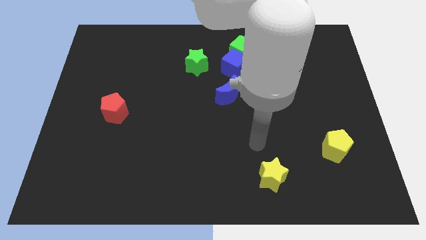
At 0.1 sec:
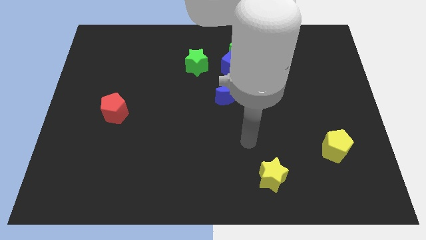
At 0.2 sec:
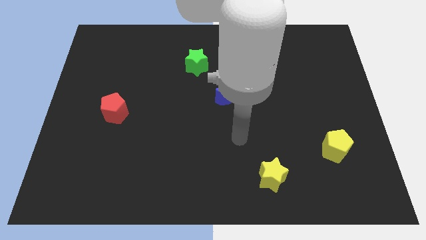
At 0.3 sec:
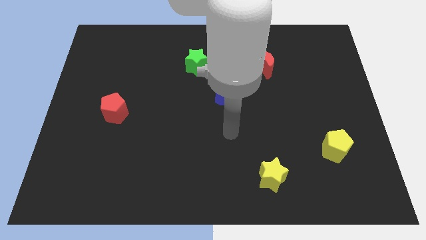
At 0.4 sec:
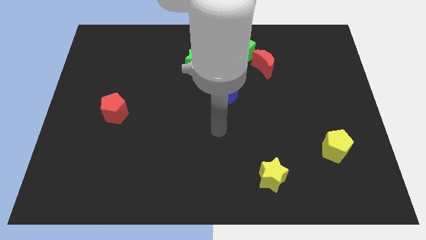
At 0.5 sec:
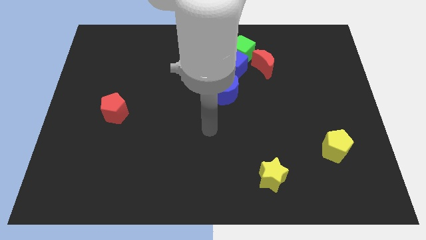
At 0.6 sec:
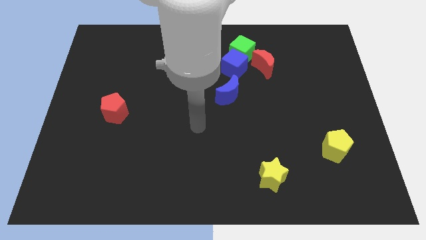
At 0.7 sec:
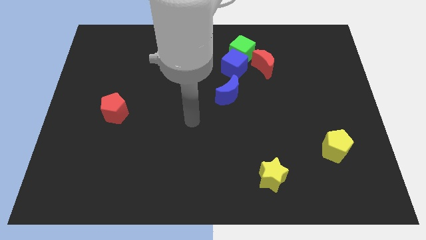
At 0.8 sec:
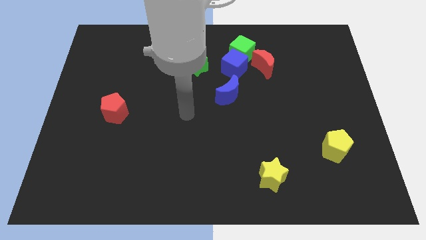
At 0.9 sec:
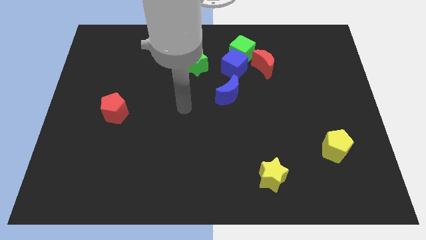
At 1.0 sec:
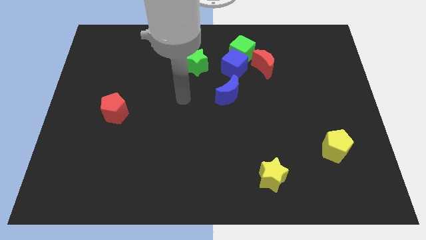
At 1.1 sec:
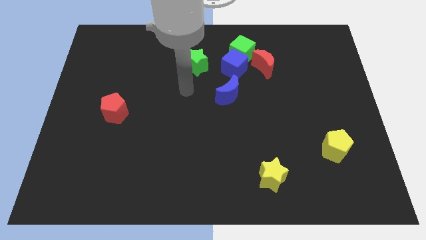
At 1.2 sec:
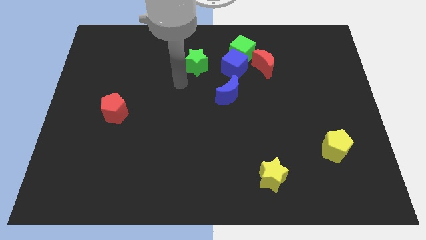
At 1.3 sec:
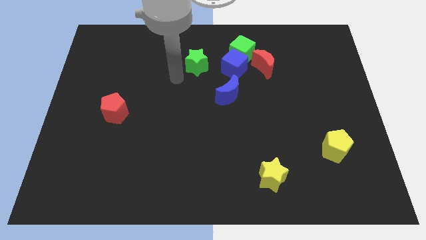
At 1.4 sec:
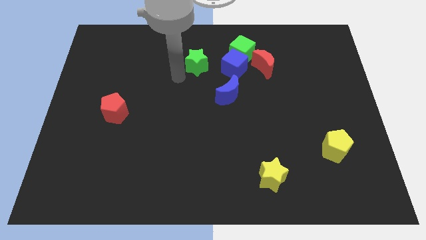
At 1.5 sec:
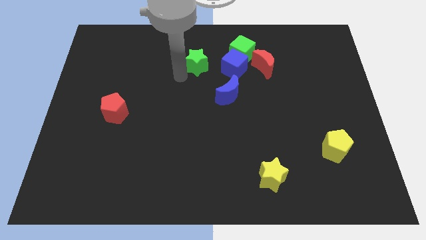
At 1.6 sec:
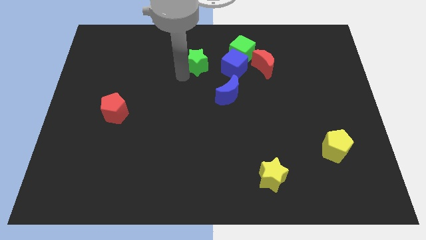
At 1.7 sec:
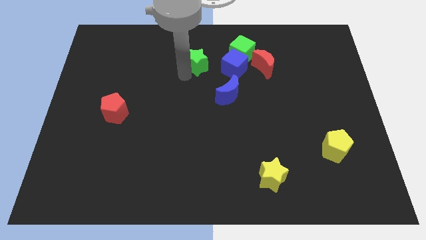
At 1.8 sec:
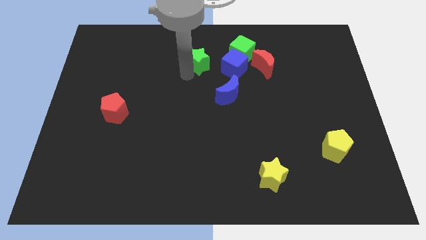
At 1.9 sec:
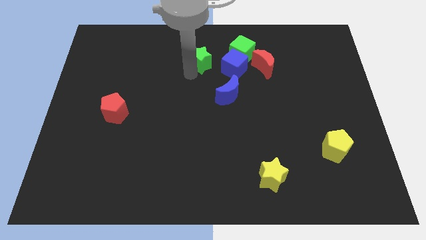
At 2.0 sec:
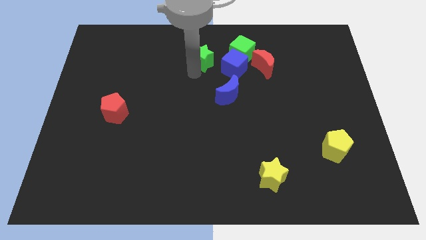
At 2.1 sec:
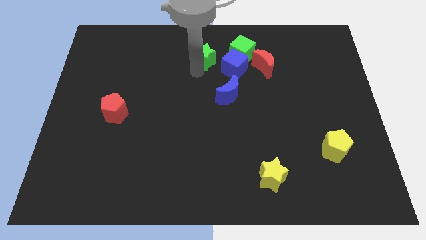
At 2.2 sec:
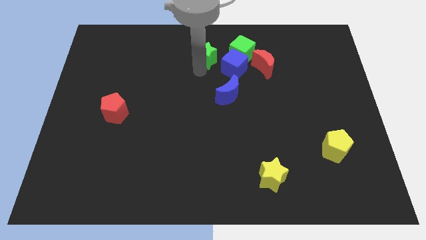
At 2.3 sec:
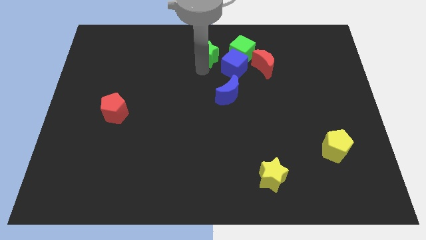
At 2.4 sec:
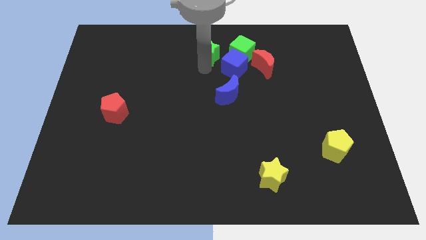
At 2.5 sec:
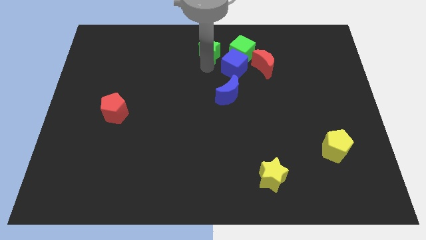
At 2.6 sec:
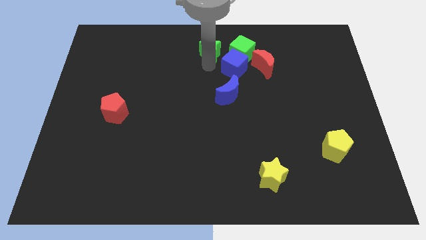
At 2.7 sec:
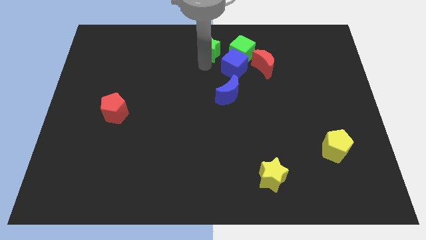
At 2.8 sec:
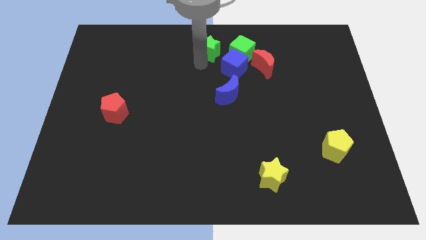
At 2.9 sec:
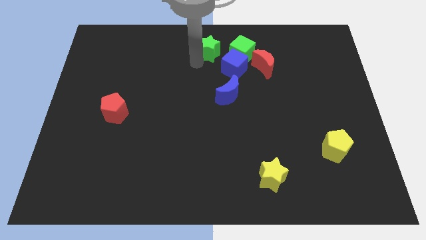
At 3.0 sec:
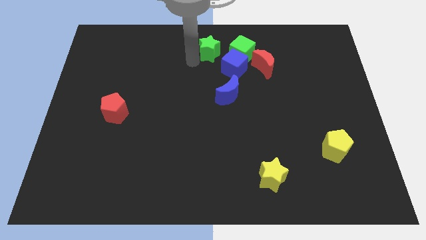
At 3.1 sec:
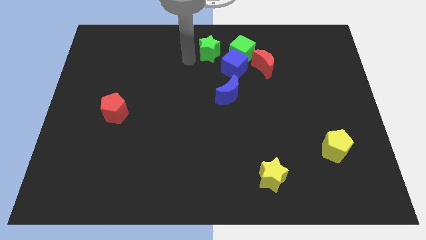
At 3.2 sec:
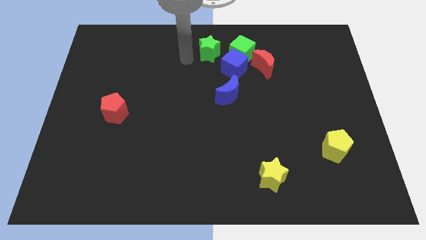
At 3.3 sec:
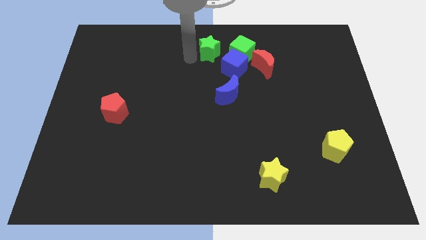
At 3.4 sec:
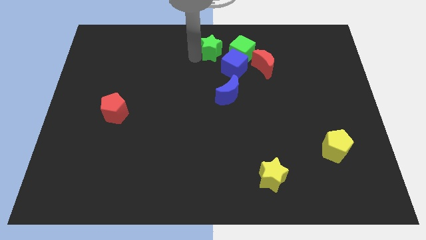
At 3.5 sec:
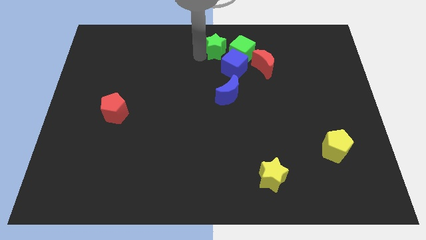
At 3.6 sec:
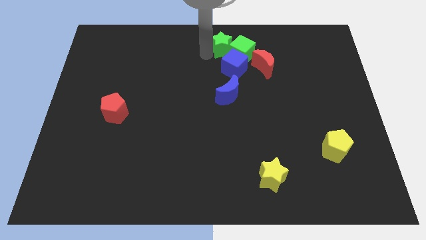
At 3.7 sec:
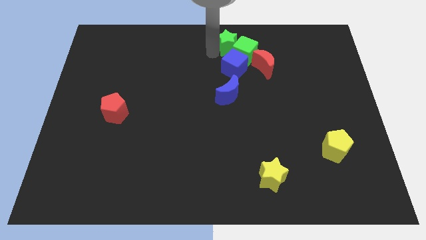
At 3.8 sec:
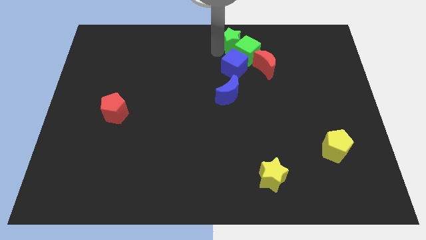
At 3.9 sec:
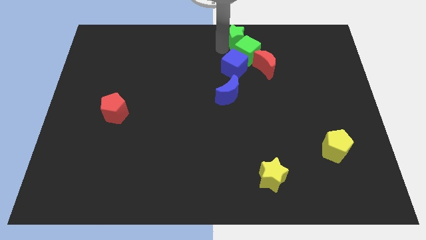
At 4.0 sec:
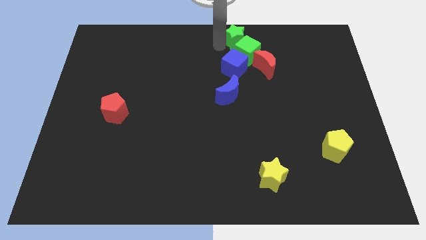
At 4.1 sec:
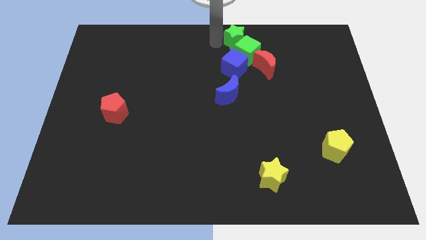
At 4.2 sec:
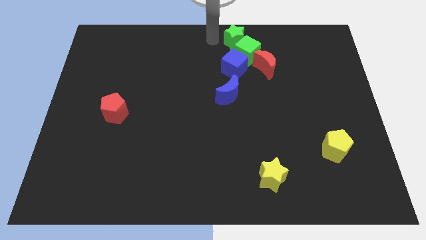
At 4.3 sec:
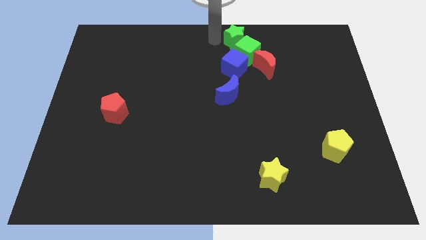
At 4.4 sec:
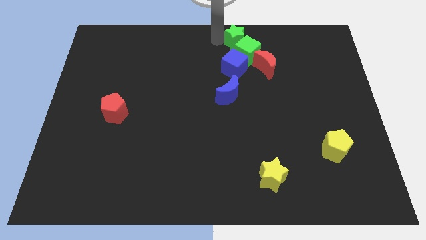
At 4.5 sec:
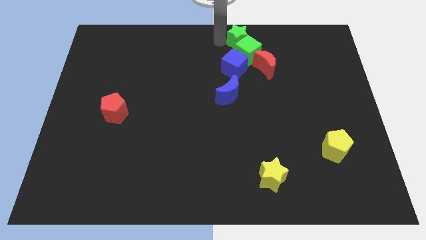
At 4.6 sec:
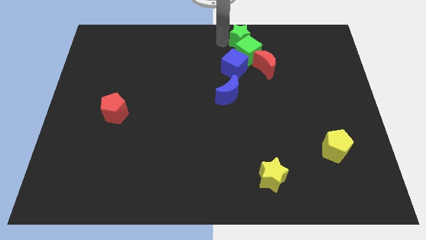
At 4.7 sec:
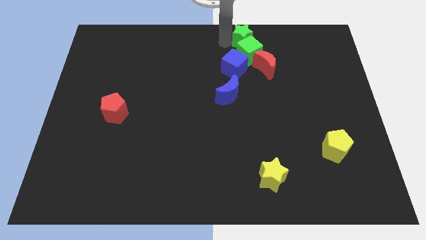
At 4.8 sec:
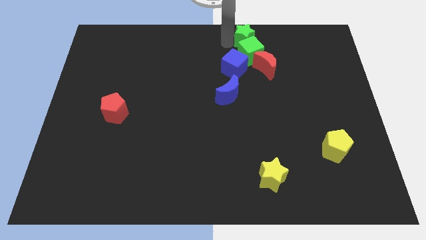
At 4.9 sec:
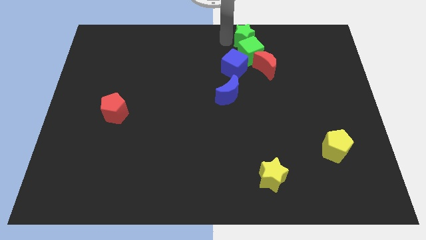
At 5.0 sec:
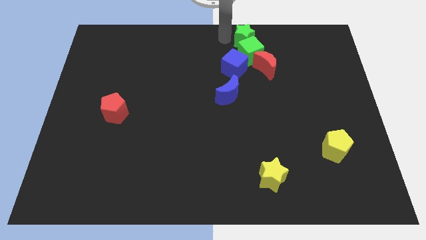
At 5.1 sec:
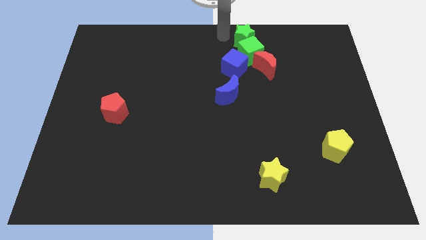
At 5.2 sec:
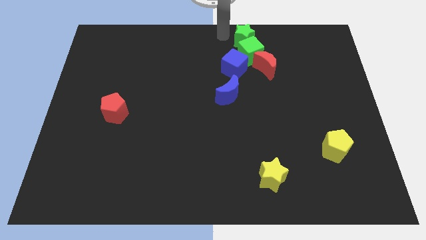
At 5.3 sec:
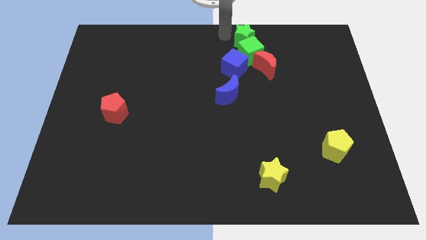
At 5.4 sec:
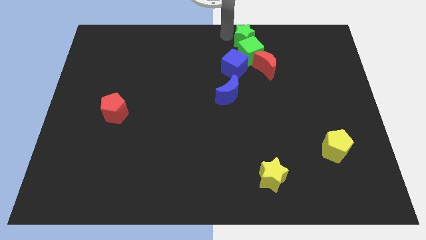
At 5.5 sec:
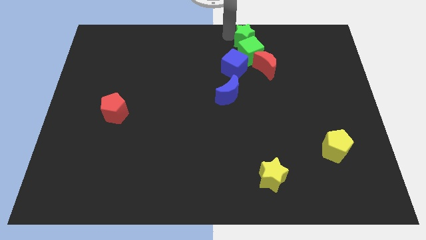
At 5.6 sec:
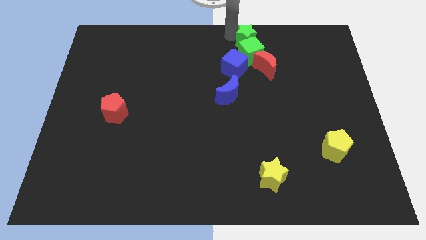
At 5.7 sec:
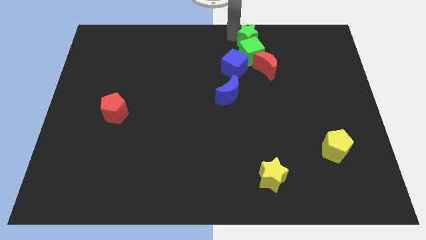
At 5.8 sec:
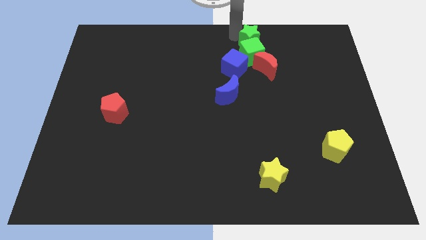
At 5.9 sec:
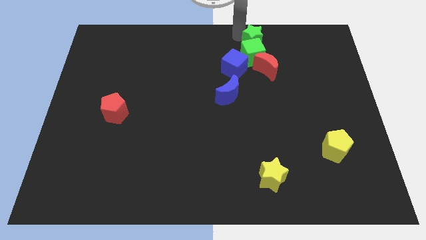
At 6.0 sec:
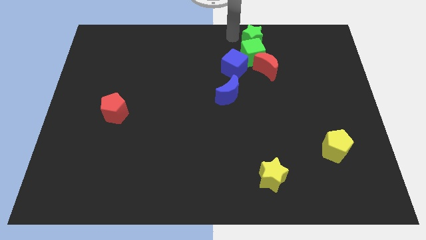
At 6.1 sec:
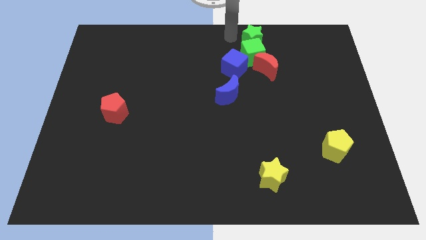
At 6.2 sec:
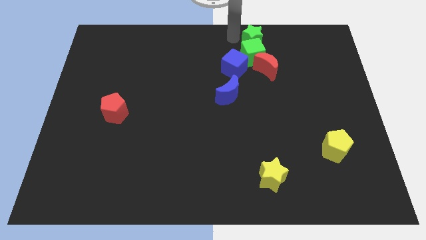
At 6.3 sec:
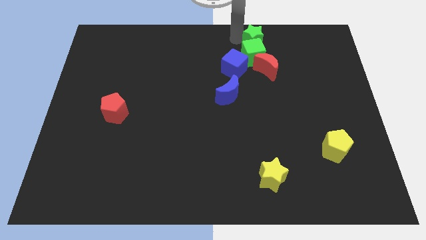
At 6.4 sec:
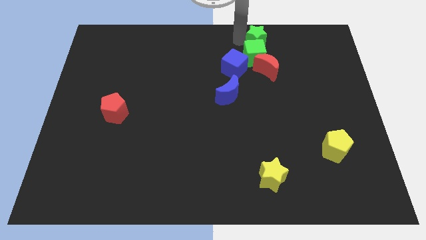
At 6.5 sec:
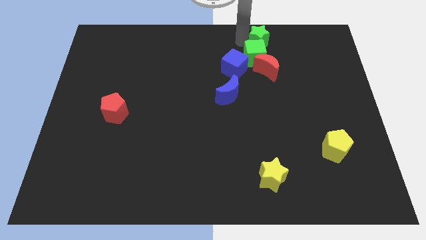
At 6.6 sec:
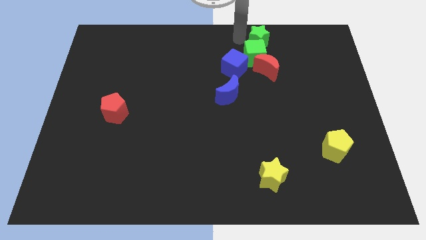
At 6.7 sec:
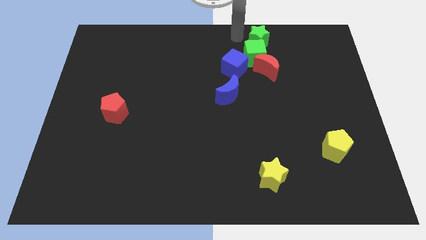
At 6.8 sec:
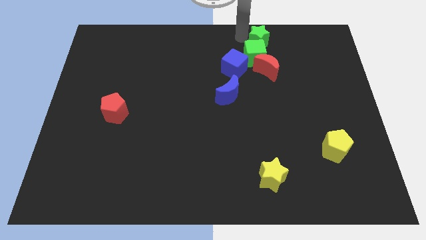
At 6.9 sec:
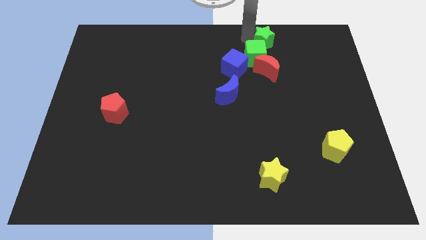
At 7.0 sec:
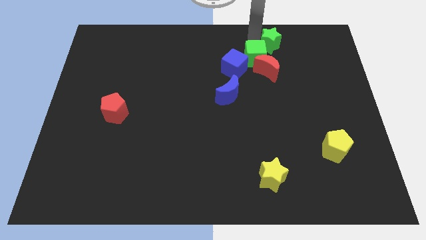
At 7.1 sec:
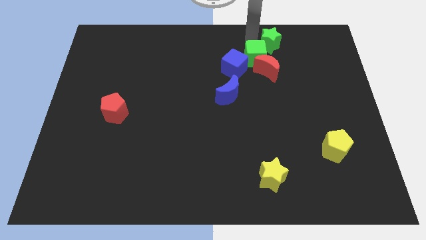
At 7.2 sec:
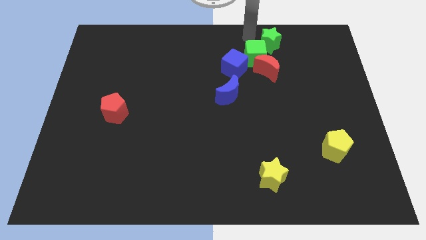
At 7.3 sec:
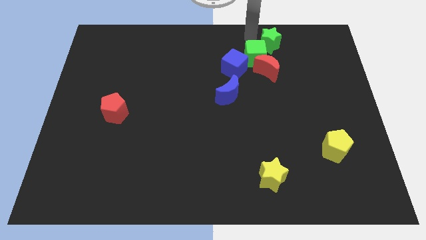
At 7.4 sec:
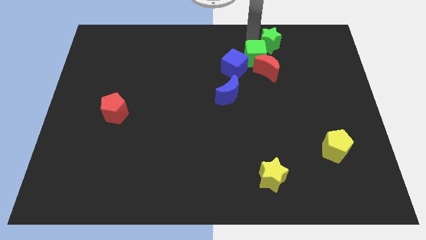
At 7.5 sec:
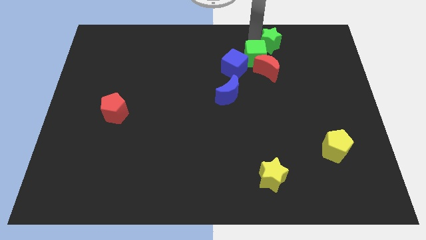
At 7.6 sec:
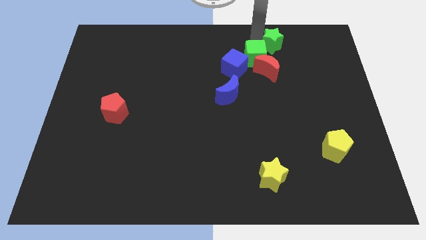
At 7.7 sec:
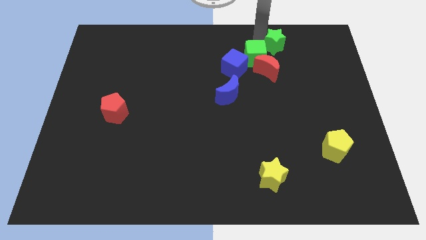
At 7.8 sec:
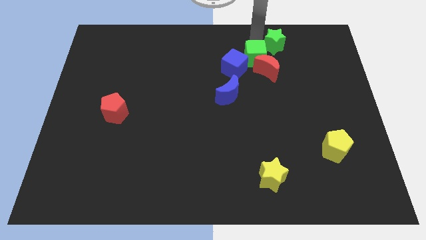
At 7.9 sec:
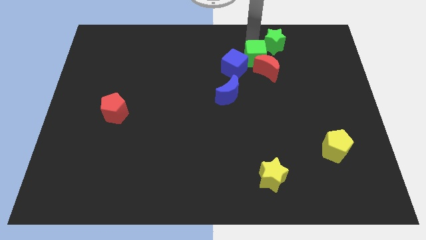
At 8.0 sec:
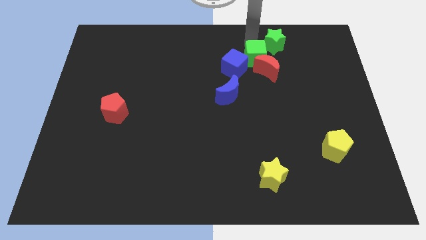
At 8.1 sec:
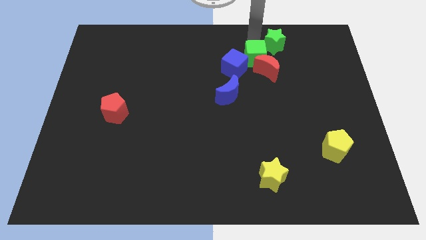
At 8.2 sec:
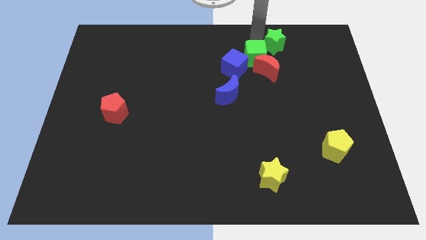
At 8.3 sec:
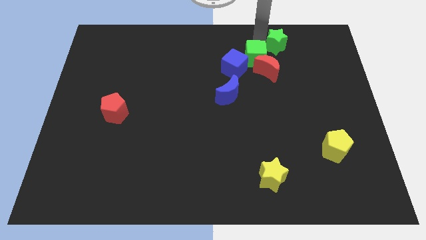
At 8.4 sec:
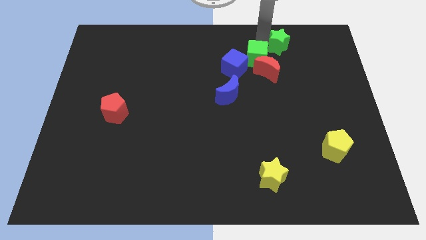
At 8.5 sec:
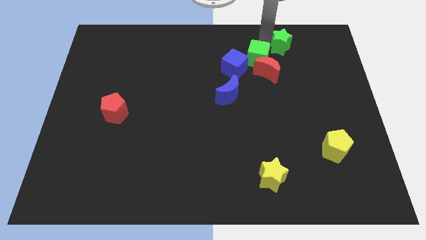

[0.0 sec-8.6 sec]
slide the green star right
